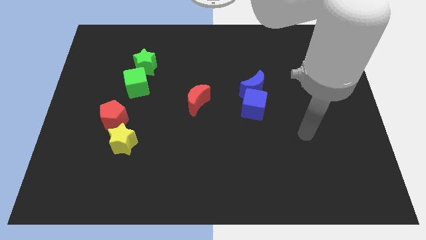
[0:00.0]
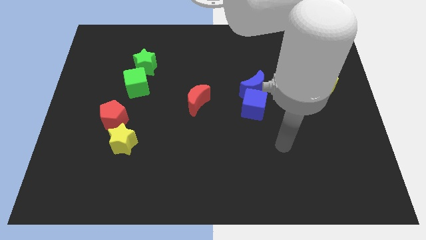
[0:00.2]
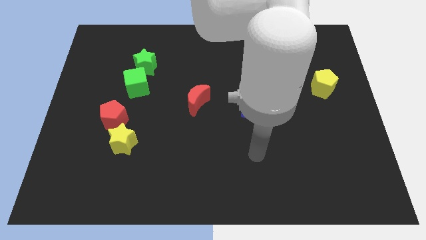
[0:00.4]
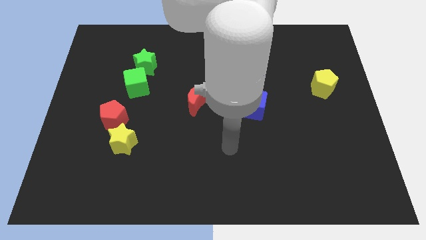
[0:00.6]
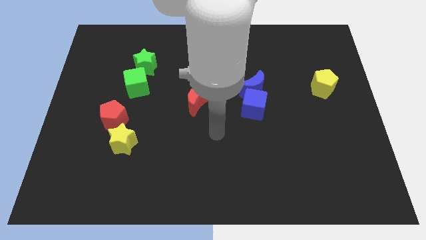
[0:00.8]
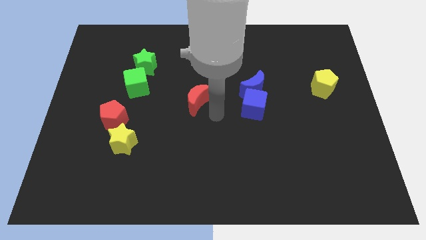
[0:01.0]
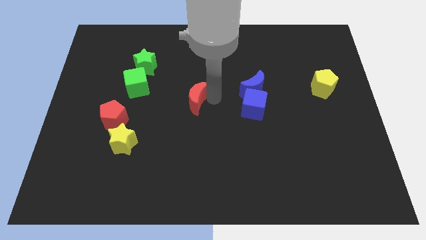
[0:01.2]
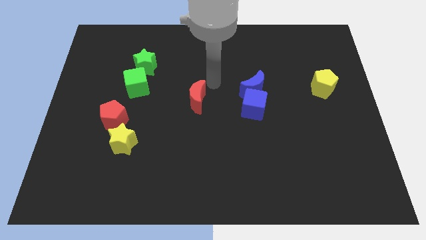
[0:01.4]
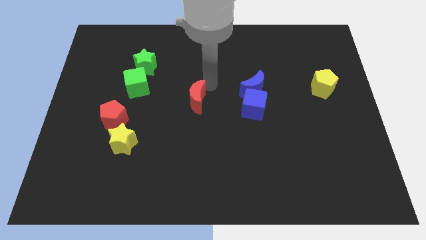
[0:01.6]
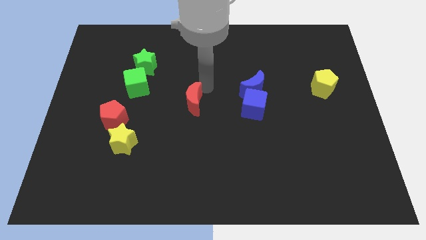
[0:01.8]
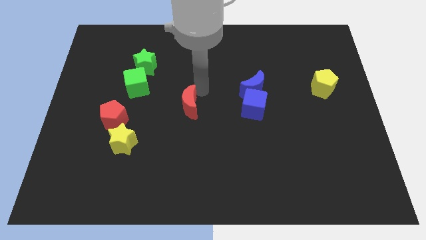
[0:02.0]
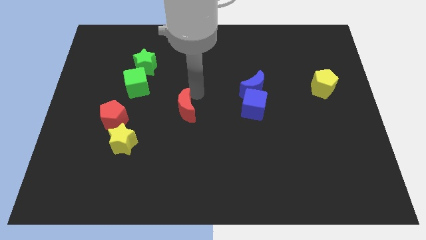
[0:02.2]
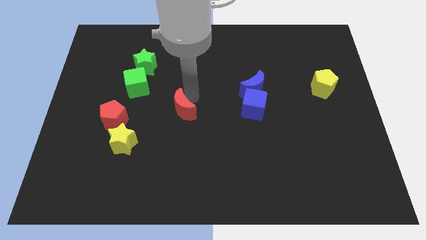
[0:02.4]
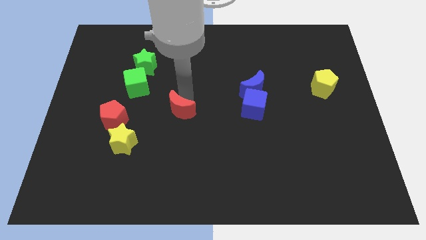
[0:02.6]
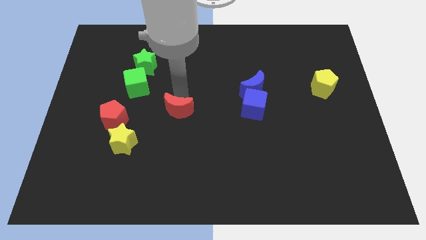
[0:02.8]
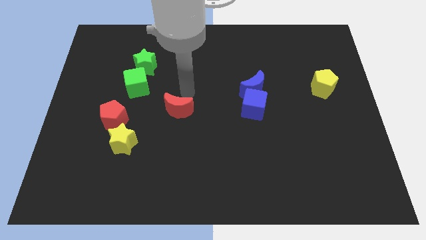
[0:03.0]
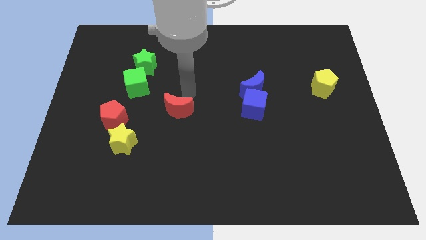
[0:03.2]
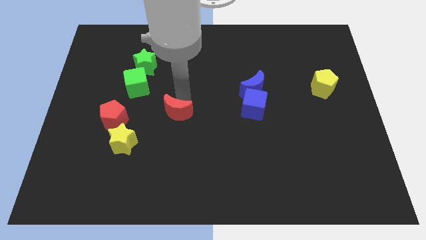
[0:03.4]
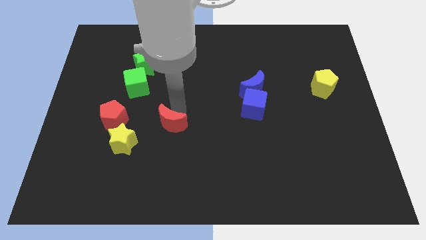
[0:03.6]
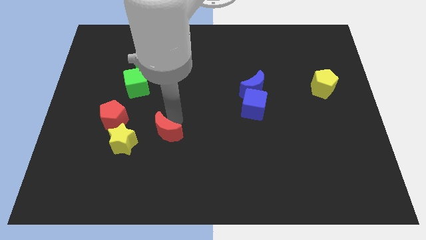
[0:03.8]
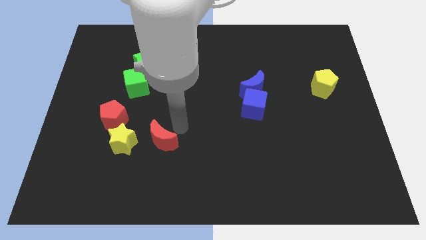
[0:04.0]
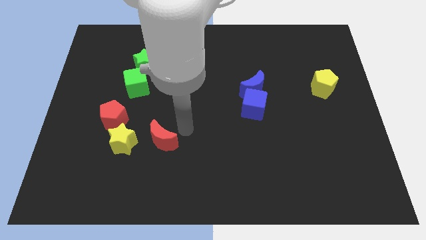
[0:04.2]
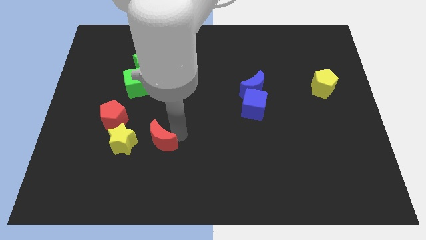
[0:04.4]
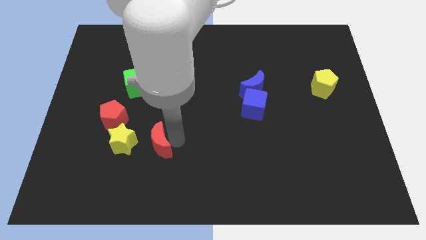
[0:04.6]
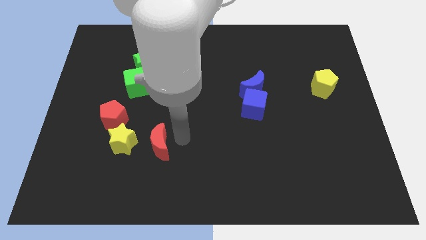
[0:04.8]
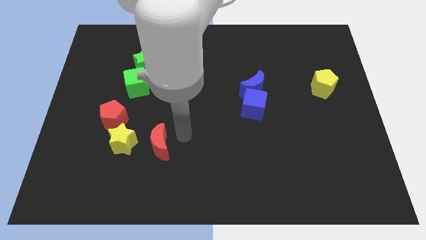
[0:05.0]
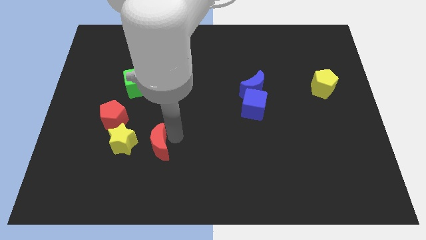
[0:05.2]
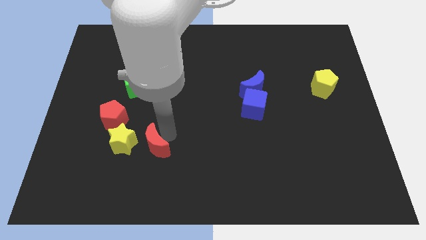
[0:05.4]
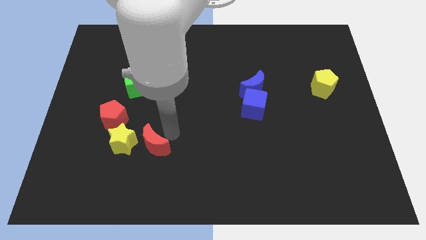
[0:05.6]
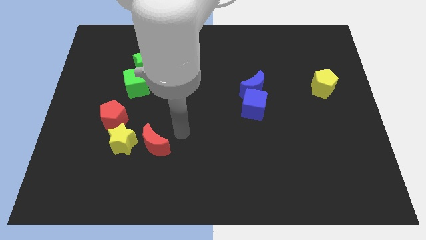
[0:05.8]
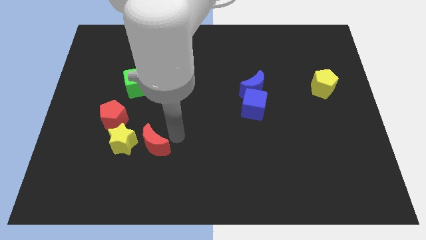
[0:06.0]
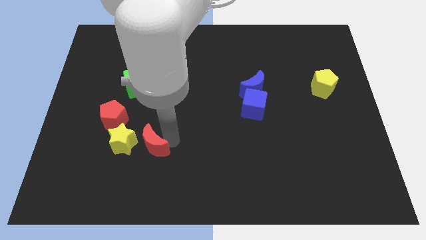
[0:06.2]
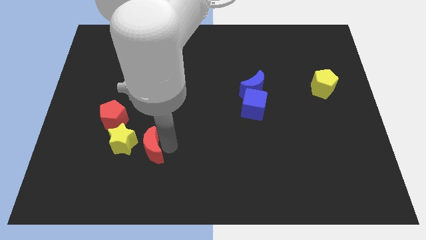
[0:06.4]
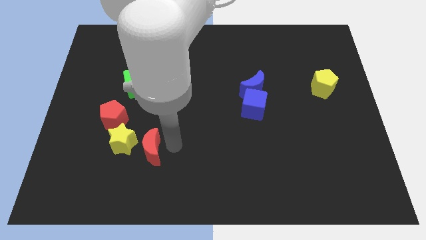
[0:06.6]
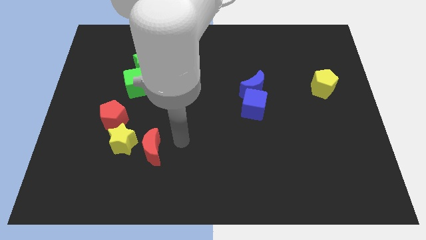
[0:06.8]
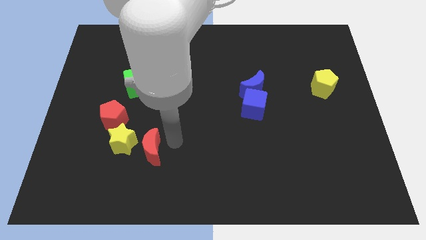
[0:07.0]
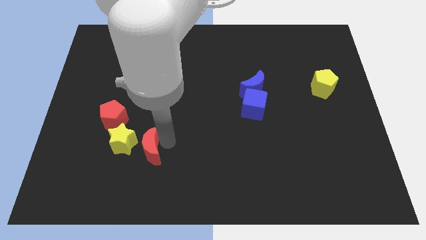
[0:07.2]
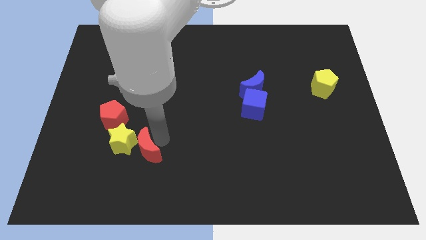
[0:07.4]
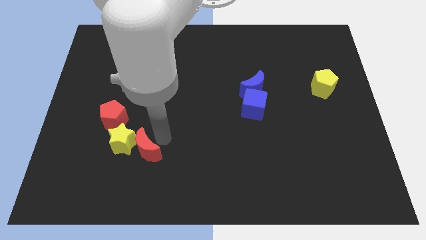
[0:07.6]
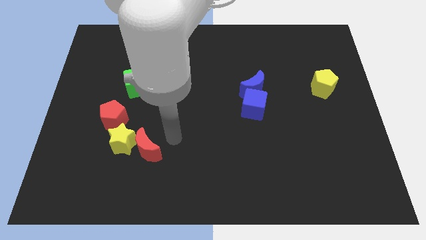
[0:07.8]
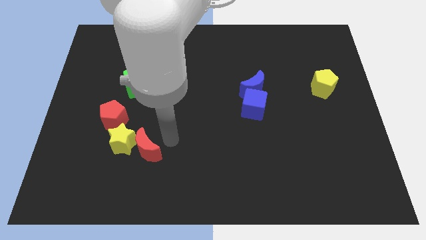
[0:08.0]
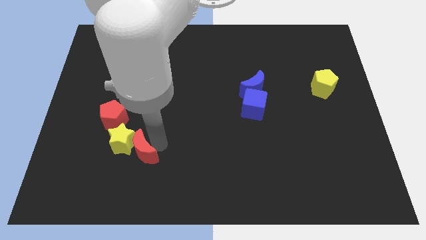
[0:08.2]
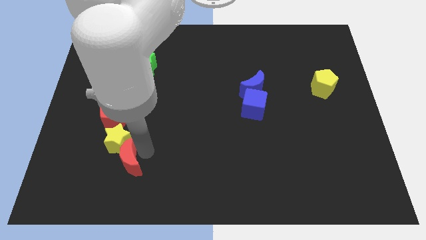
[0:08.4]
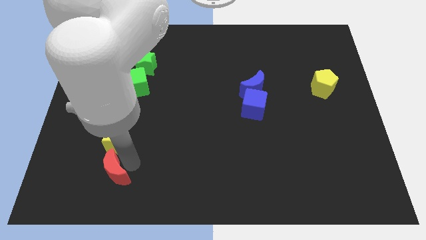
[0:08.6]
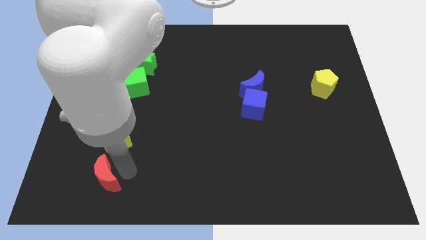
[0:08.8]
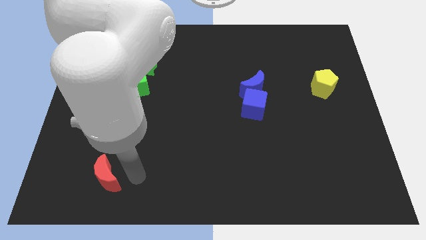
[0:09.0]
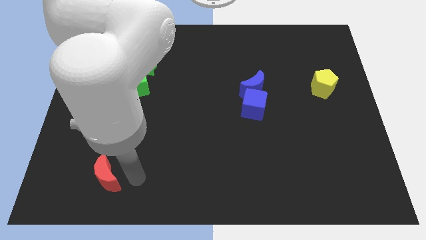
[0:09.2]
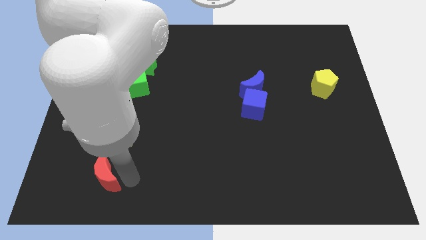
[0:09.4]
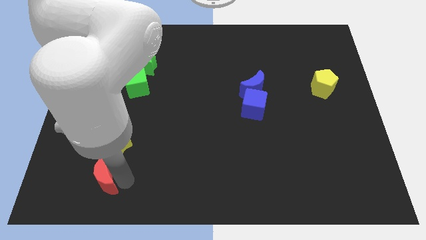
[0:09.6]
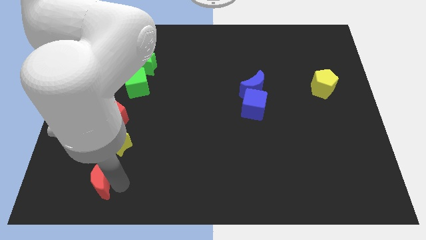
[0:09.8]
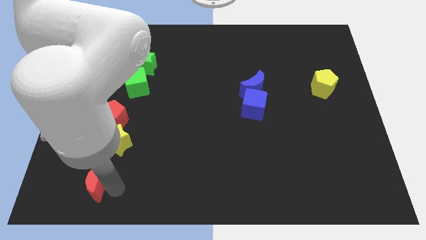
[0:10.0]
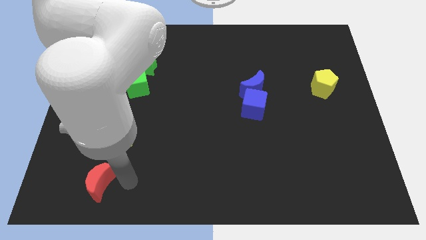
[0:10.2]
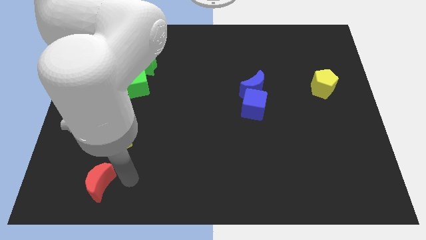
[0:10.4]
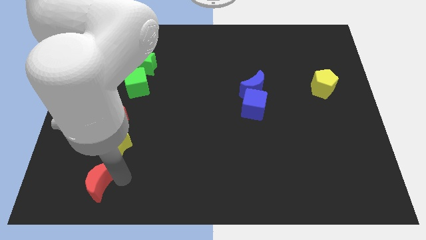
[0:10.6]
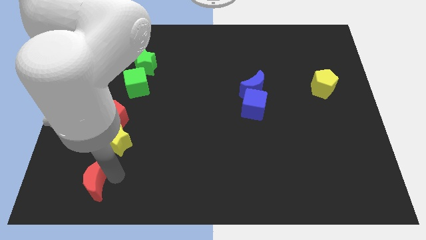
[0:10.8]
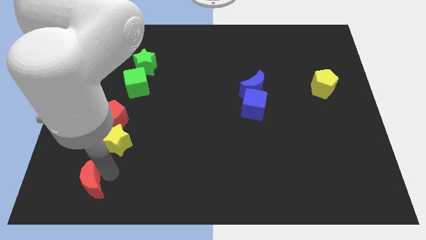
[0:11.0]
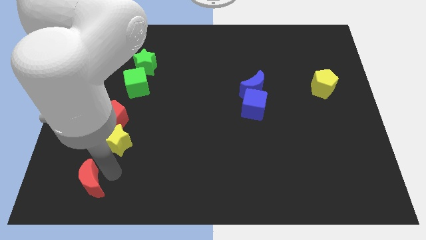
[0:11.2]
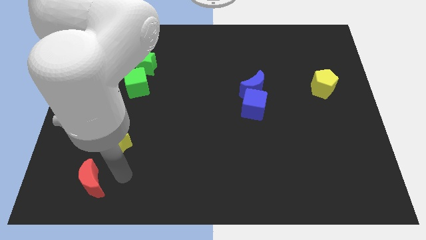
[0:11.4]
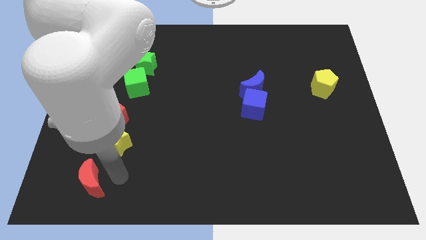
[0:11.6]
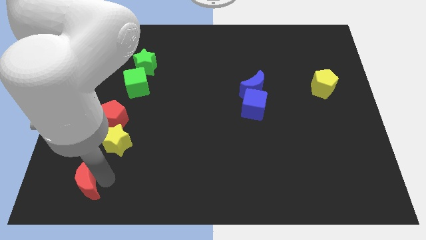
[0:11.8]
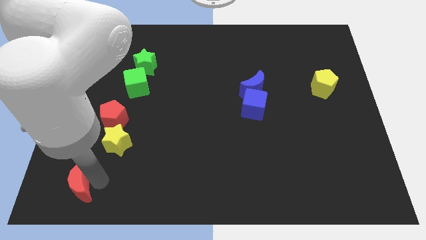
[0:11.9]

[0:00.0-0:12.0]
put the red moon to the bottom left corner

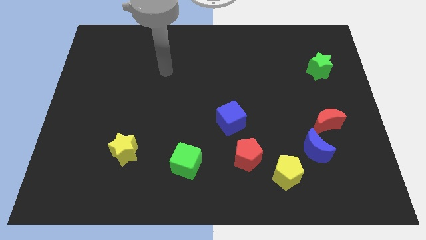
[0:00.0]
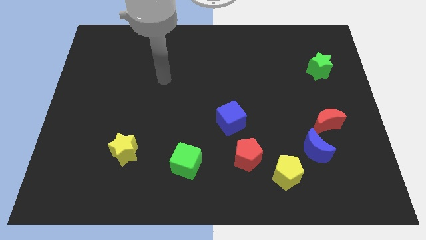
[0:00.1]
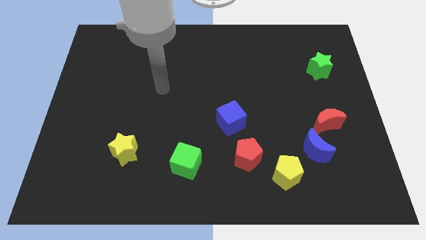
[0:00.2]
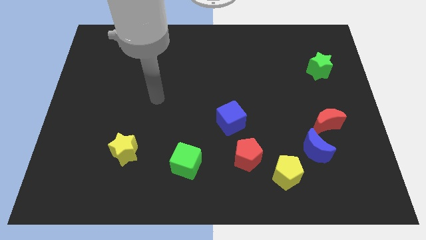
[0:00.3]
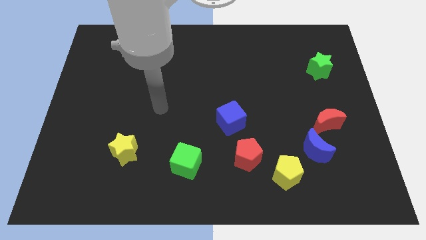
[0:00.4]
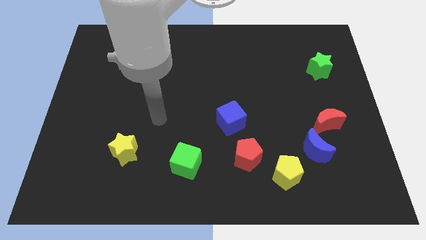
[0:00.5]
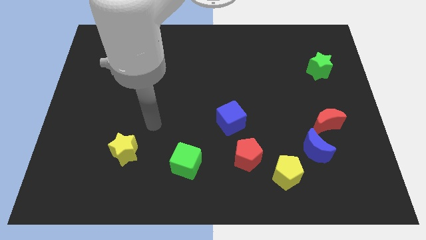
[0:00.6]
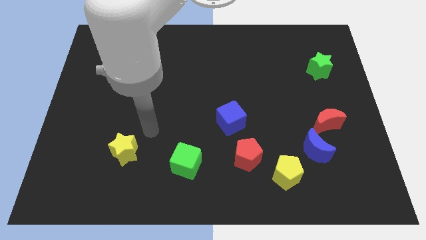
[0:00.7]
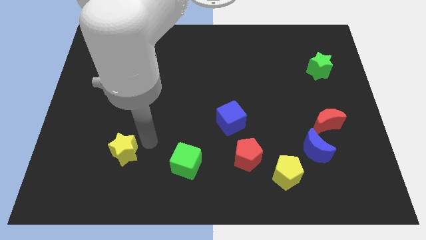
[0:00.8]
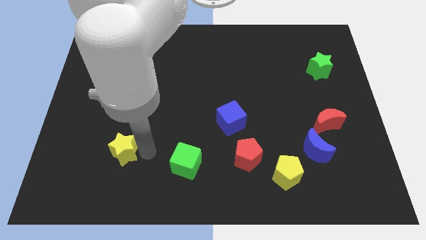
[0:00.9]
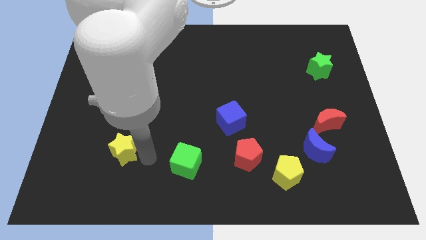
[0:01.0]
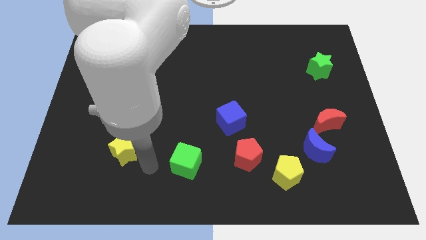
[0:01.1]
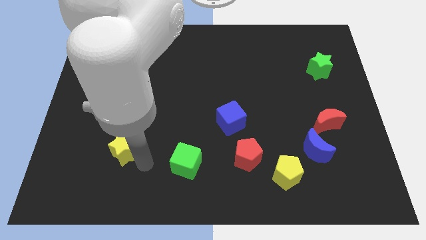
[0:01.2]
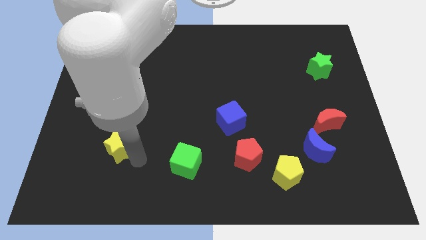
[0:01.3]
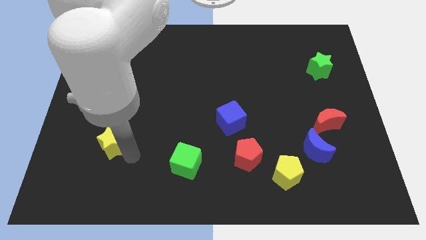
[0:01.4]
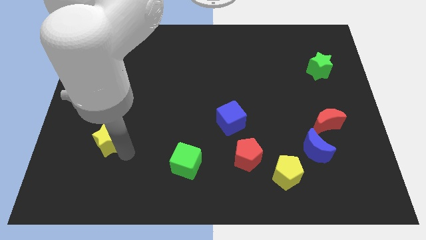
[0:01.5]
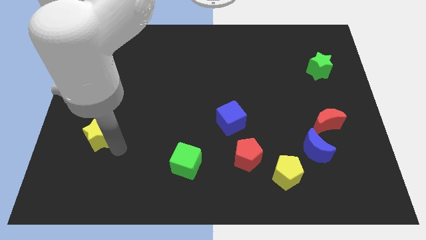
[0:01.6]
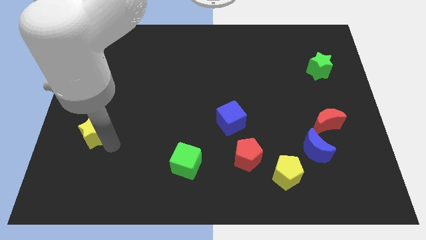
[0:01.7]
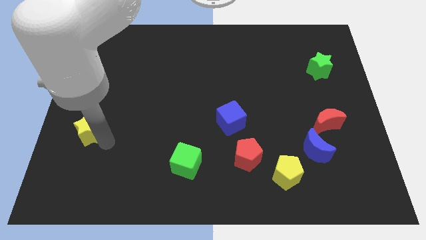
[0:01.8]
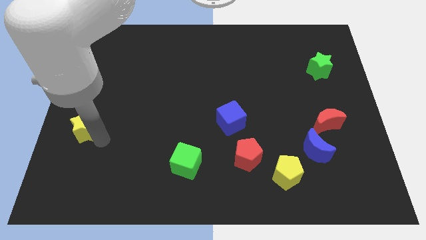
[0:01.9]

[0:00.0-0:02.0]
put the yellow star to the left side
